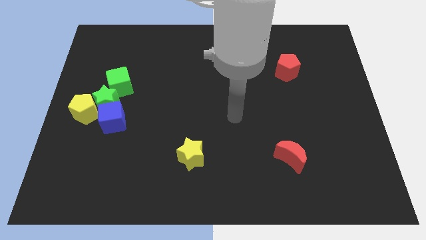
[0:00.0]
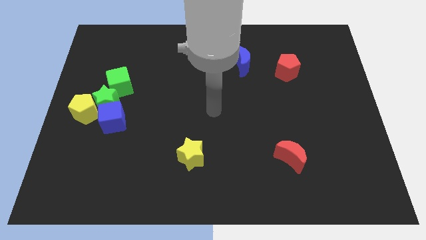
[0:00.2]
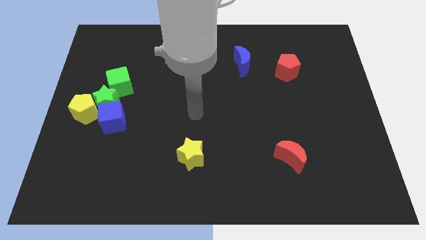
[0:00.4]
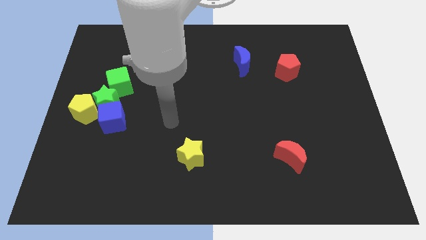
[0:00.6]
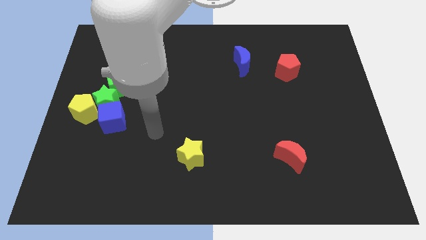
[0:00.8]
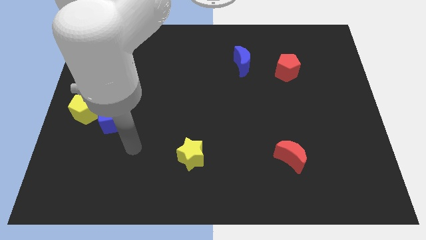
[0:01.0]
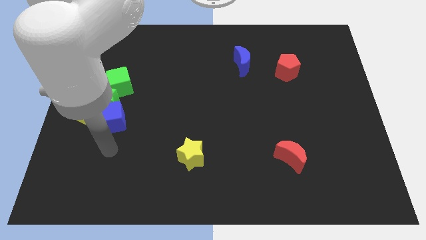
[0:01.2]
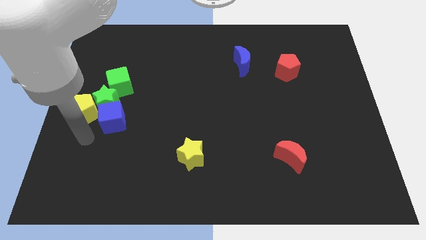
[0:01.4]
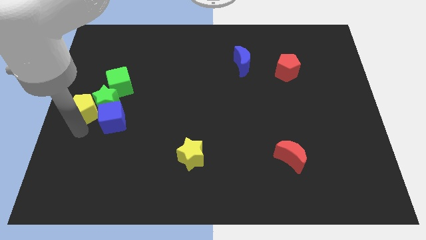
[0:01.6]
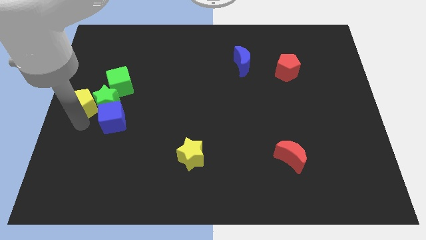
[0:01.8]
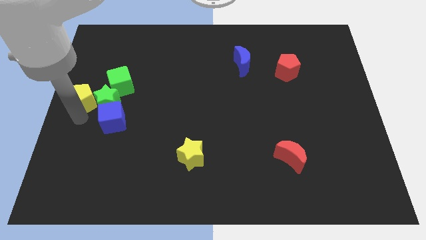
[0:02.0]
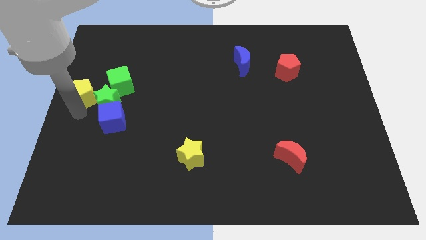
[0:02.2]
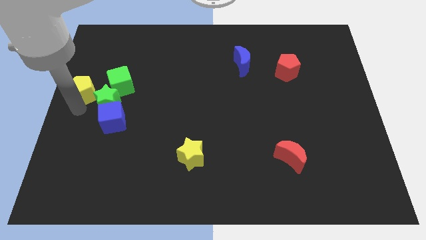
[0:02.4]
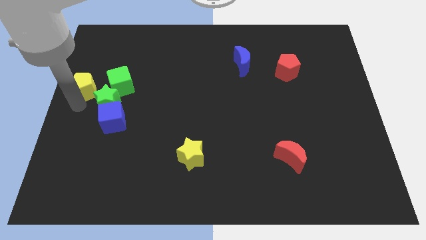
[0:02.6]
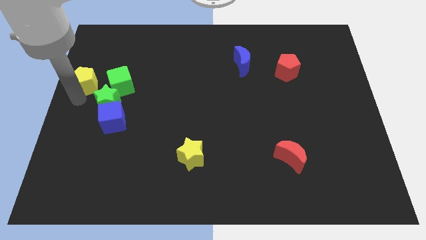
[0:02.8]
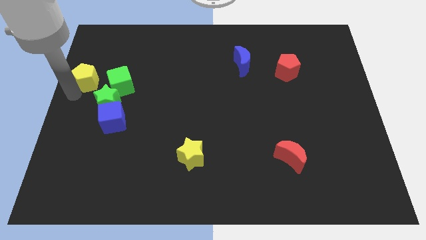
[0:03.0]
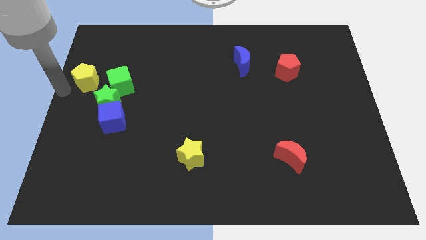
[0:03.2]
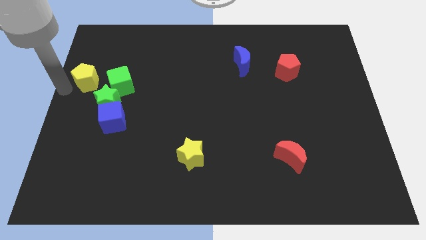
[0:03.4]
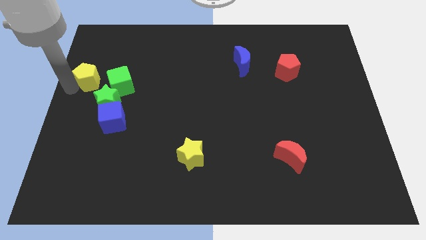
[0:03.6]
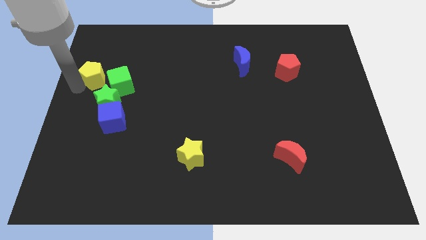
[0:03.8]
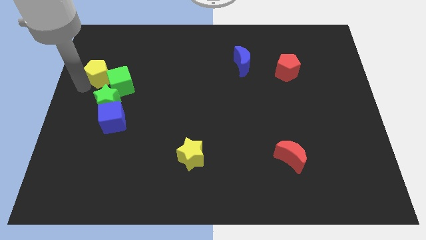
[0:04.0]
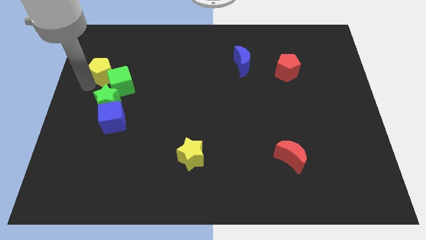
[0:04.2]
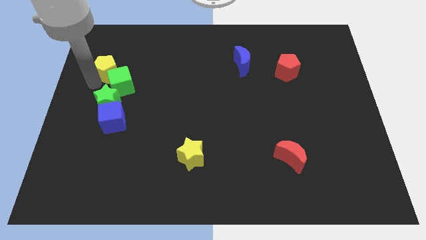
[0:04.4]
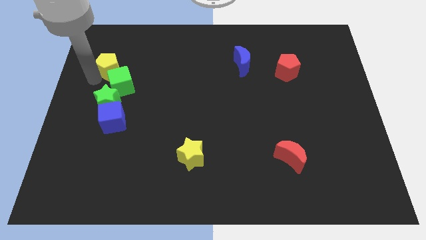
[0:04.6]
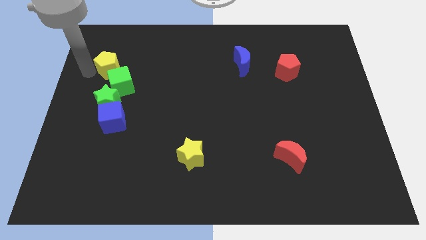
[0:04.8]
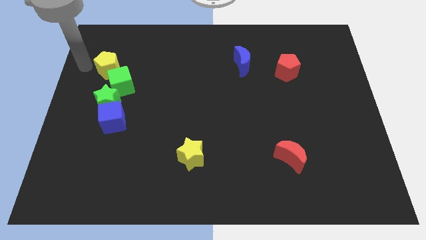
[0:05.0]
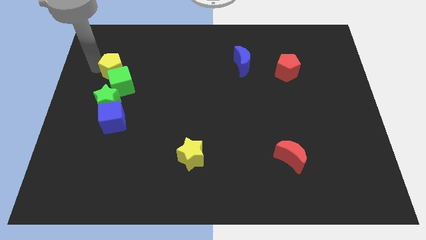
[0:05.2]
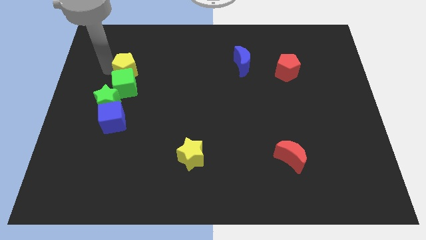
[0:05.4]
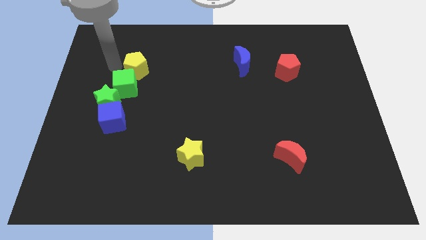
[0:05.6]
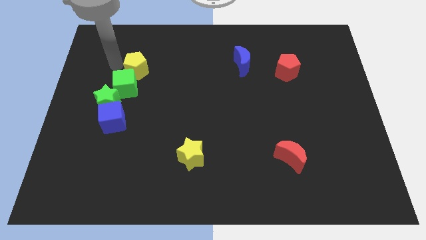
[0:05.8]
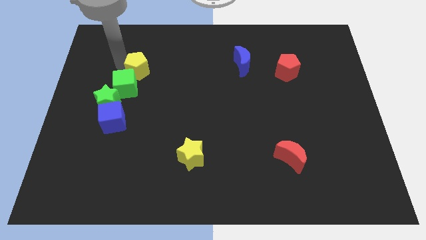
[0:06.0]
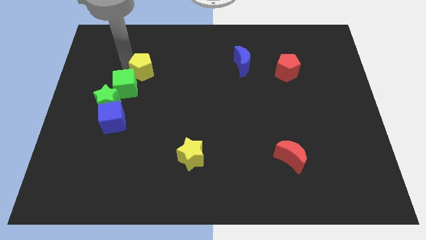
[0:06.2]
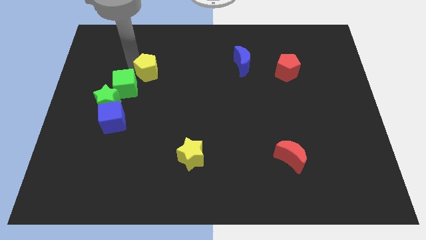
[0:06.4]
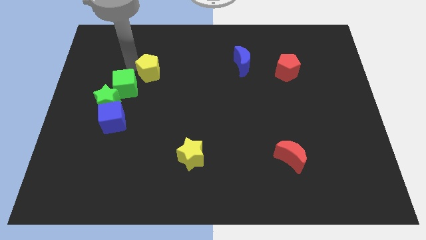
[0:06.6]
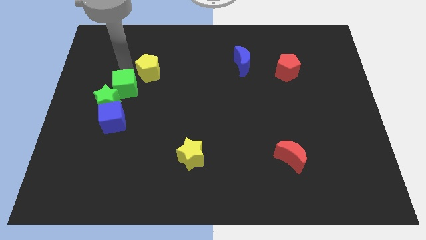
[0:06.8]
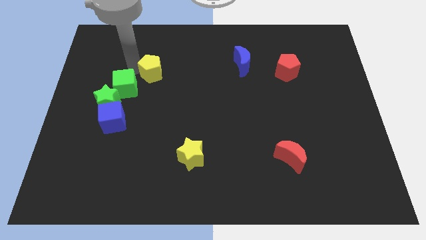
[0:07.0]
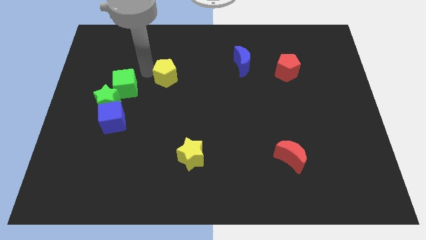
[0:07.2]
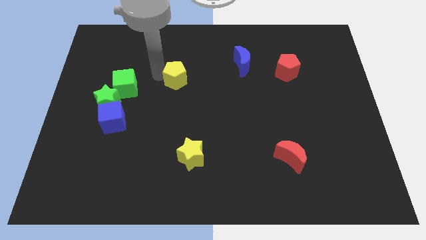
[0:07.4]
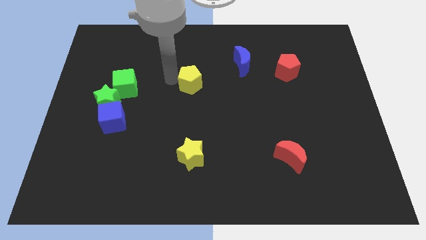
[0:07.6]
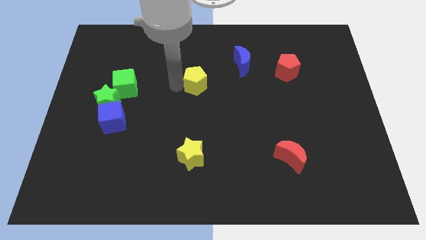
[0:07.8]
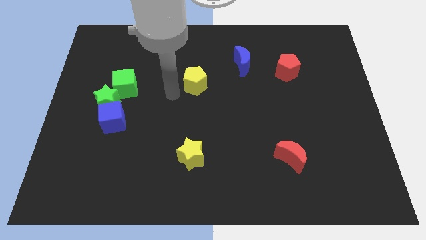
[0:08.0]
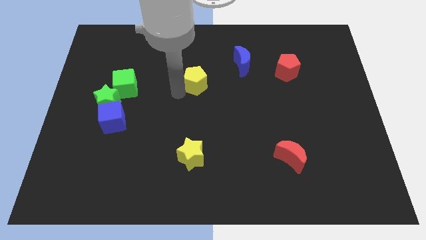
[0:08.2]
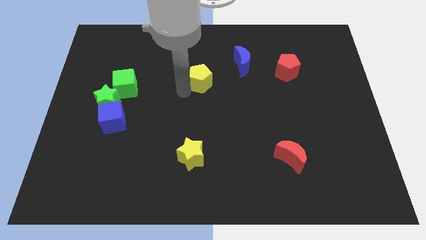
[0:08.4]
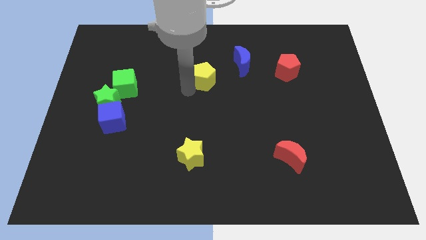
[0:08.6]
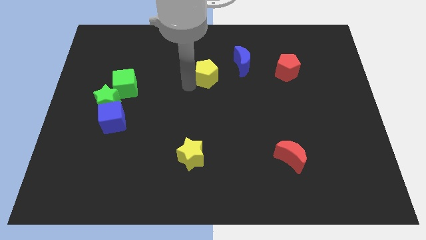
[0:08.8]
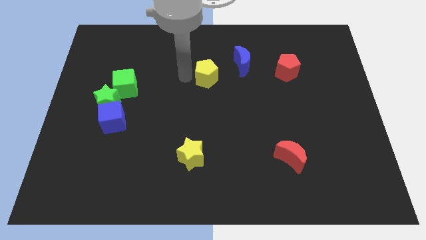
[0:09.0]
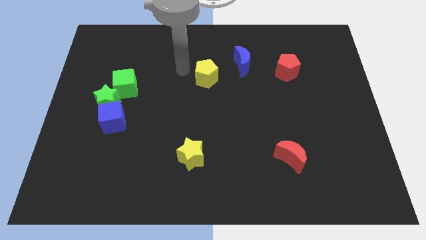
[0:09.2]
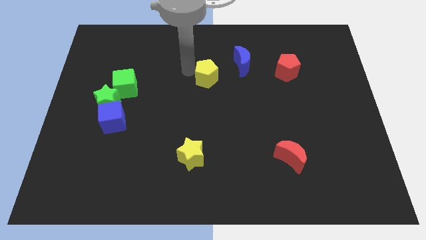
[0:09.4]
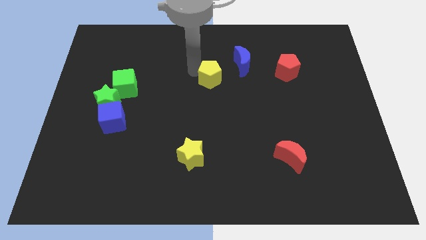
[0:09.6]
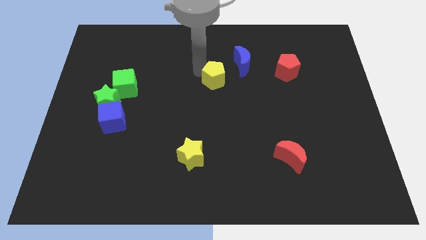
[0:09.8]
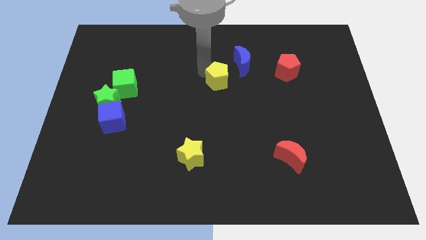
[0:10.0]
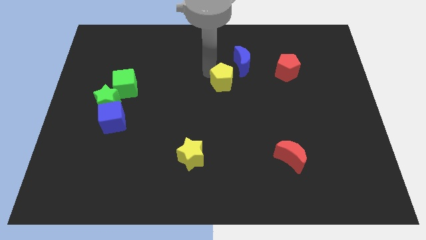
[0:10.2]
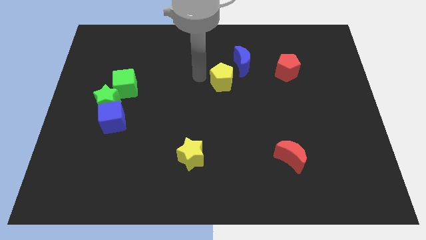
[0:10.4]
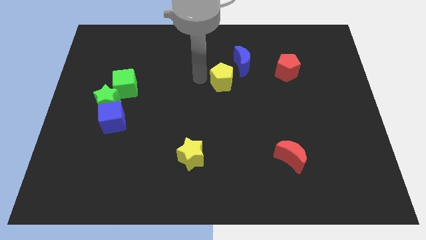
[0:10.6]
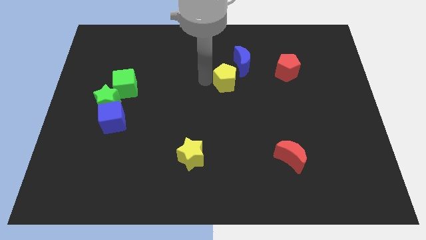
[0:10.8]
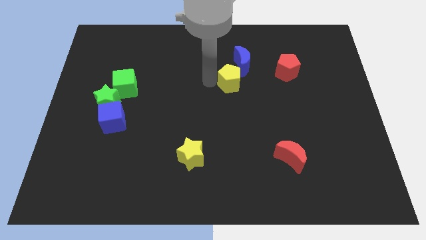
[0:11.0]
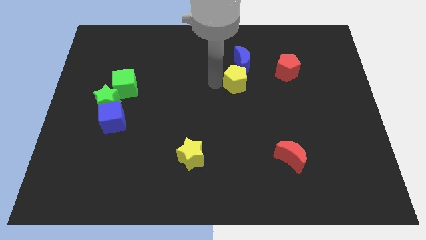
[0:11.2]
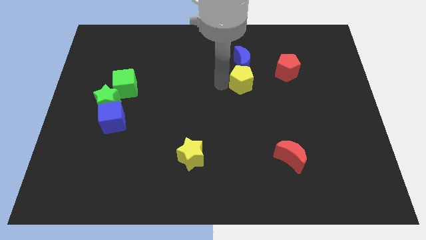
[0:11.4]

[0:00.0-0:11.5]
slide the yellow pentagon diagonally down and to the right of the blue moon

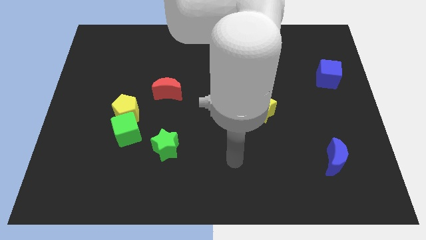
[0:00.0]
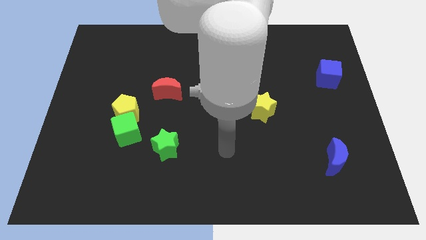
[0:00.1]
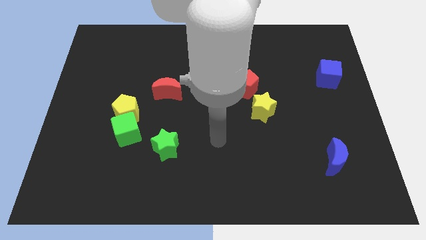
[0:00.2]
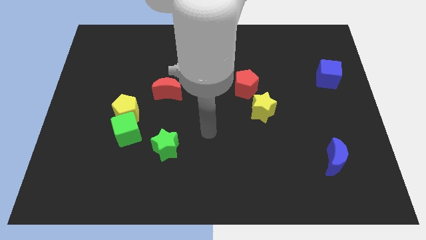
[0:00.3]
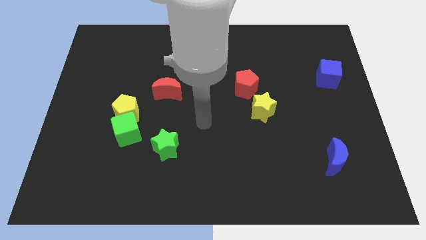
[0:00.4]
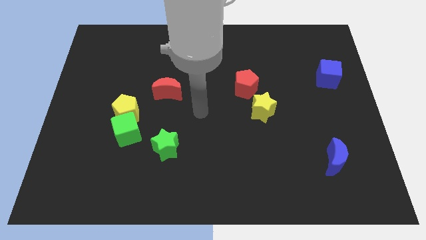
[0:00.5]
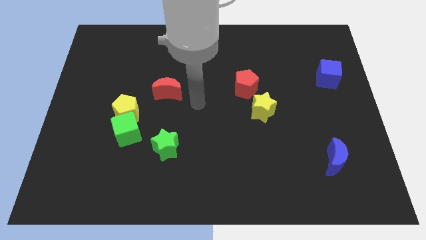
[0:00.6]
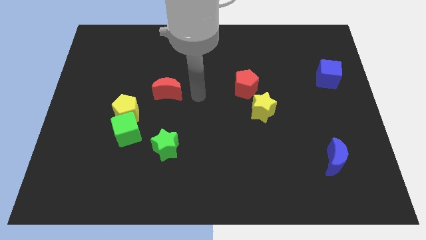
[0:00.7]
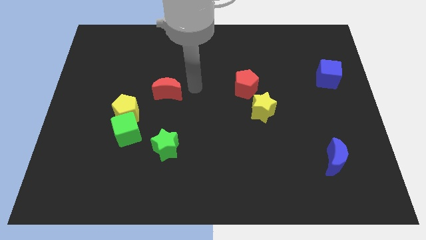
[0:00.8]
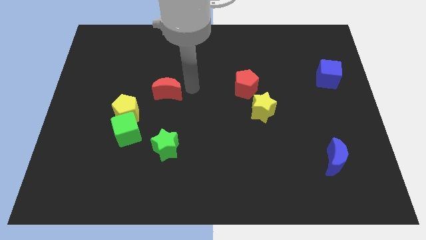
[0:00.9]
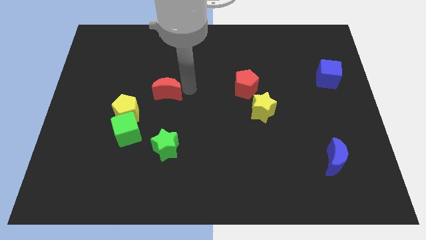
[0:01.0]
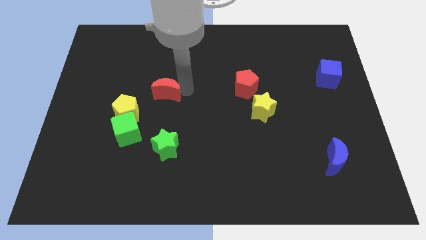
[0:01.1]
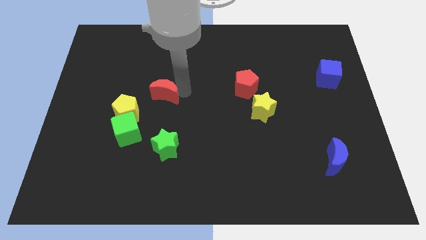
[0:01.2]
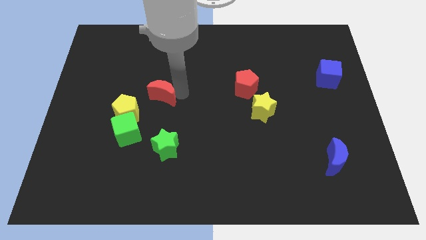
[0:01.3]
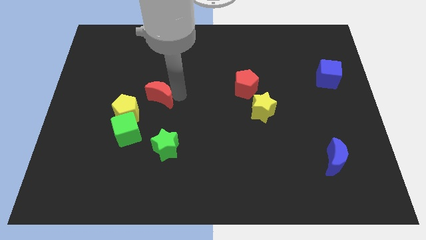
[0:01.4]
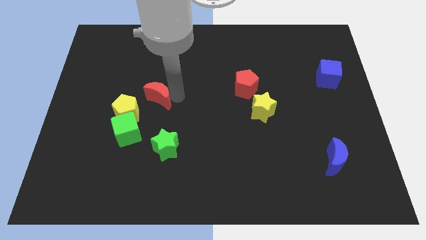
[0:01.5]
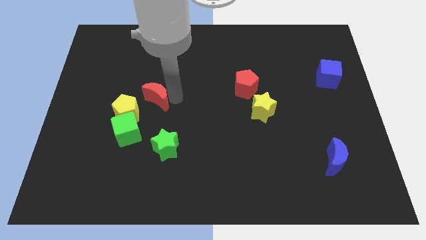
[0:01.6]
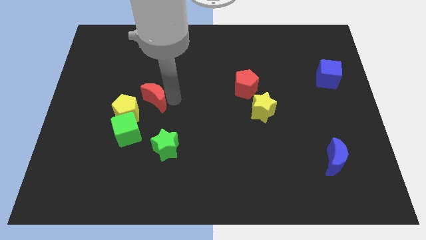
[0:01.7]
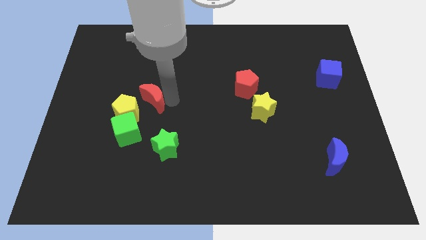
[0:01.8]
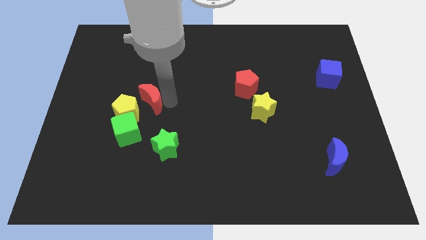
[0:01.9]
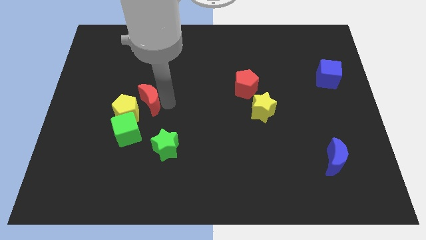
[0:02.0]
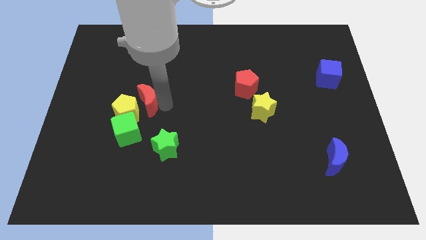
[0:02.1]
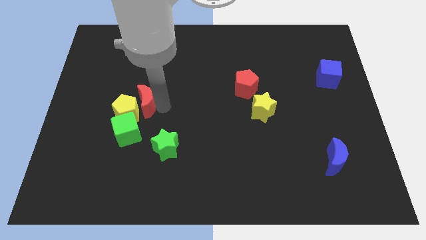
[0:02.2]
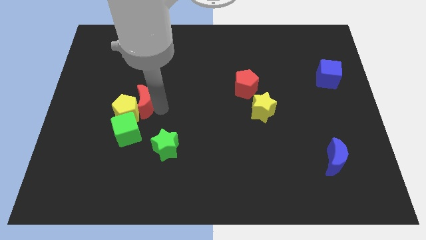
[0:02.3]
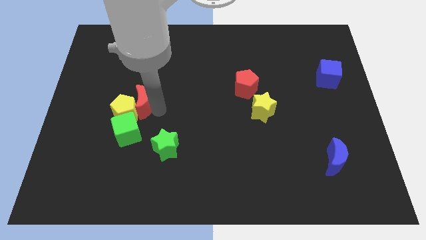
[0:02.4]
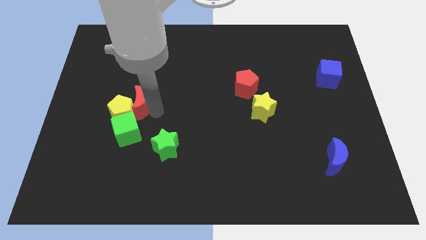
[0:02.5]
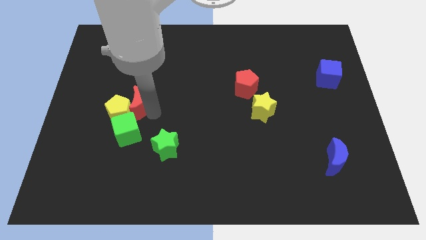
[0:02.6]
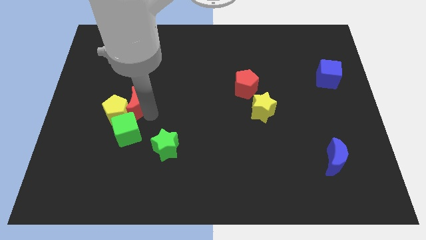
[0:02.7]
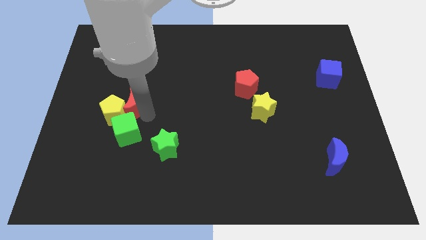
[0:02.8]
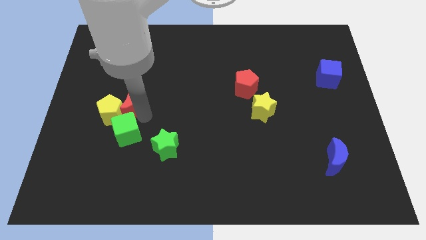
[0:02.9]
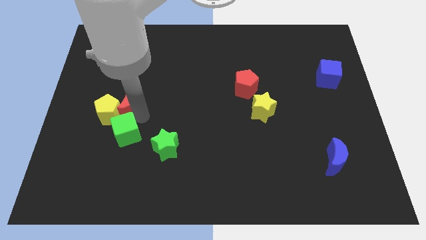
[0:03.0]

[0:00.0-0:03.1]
push the red moon diagonally up and to the left of the green cube
